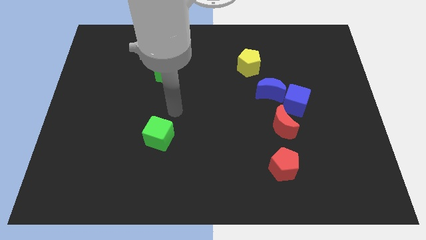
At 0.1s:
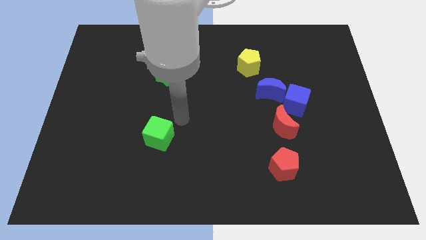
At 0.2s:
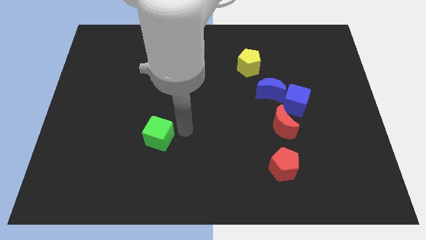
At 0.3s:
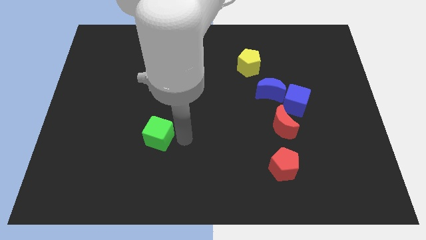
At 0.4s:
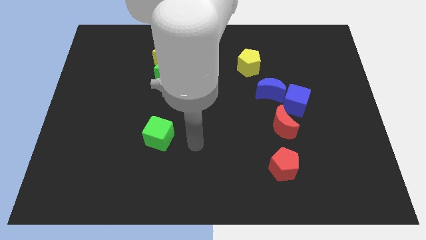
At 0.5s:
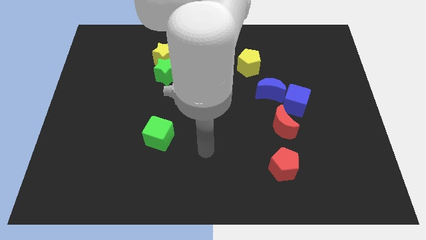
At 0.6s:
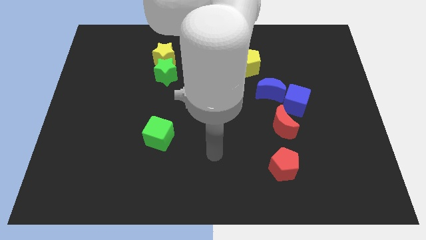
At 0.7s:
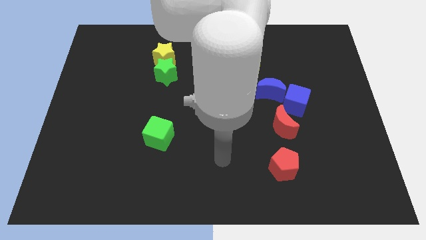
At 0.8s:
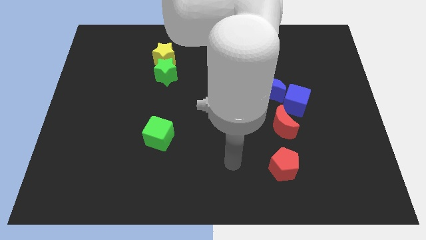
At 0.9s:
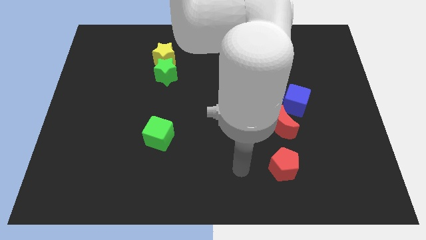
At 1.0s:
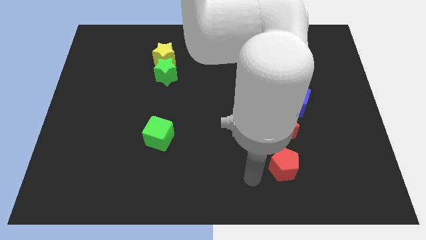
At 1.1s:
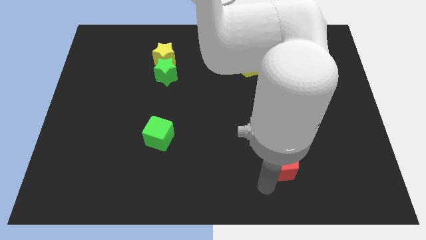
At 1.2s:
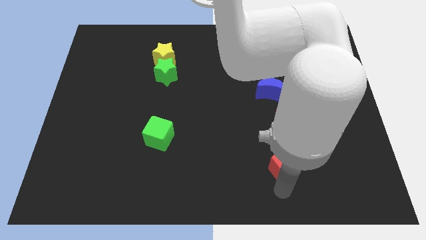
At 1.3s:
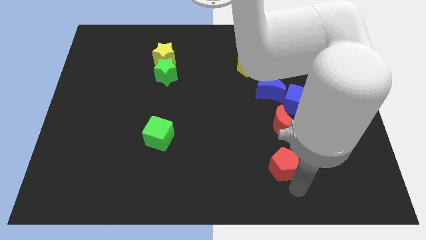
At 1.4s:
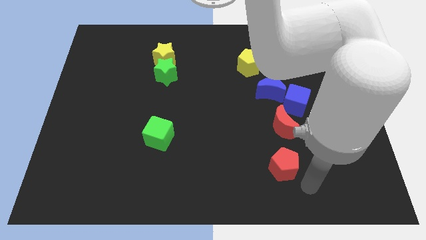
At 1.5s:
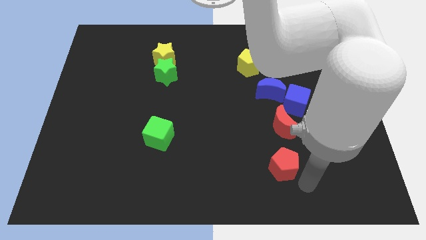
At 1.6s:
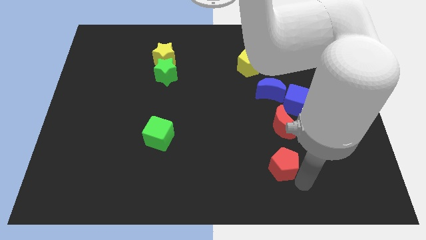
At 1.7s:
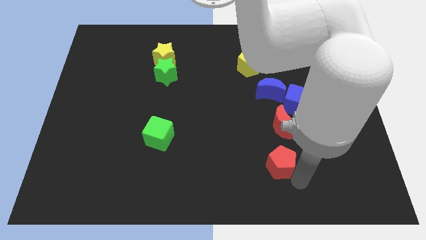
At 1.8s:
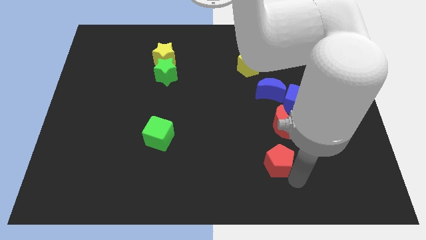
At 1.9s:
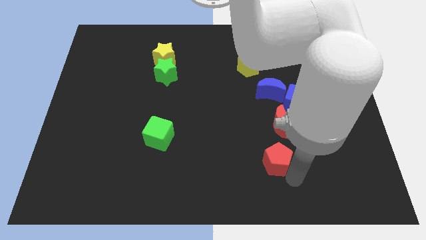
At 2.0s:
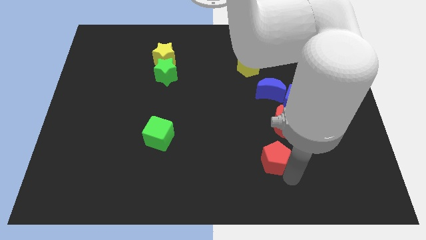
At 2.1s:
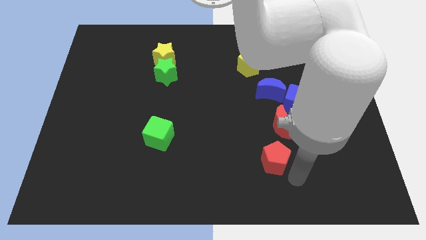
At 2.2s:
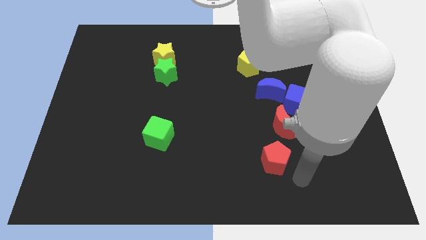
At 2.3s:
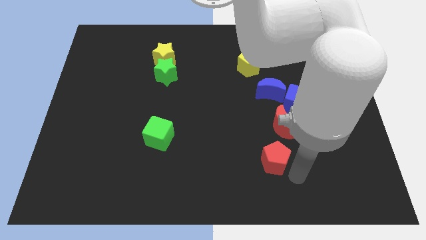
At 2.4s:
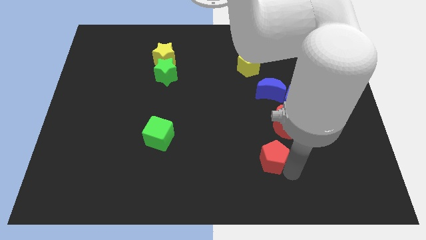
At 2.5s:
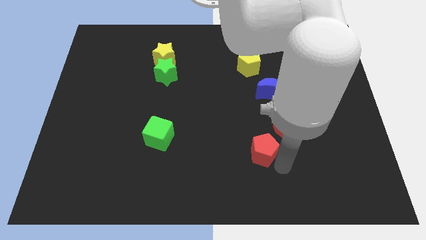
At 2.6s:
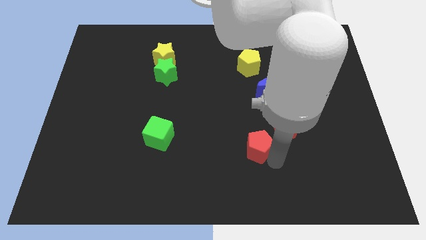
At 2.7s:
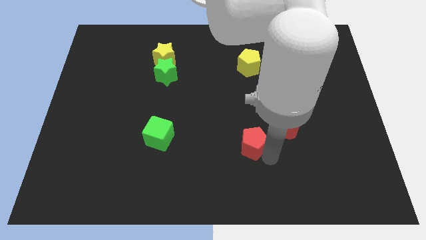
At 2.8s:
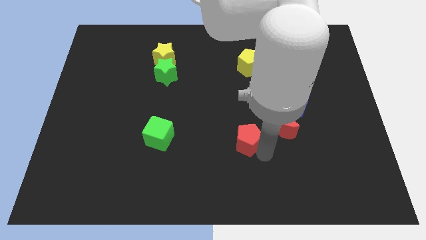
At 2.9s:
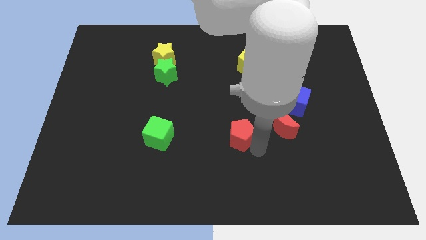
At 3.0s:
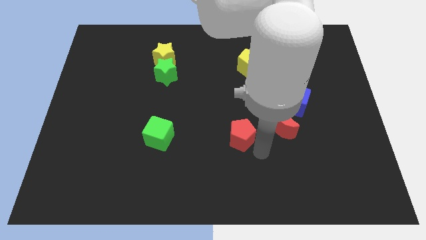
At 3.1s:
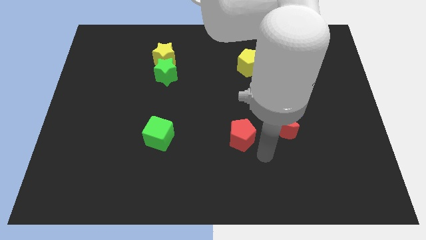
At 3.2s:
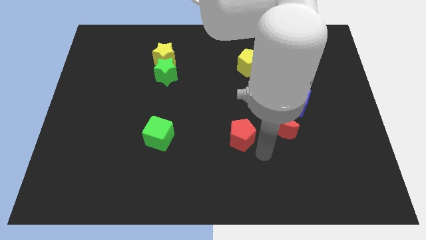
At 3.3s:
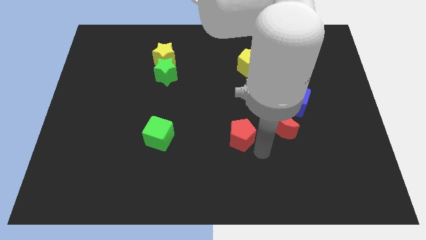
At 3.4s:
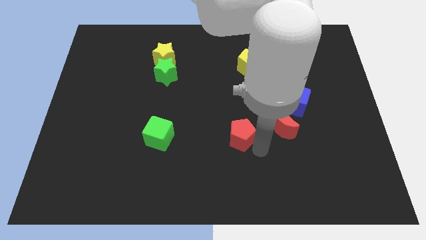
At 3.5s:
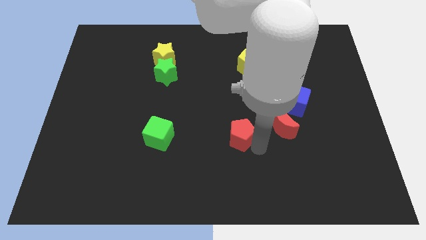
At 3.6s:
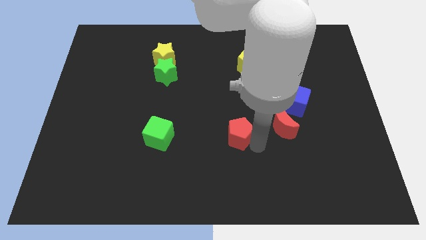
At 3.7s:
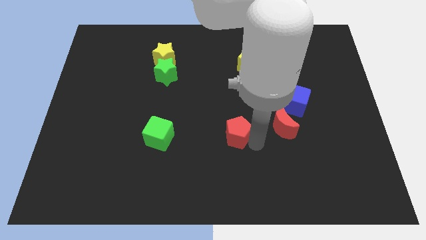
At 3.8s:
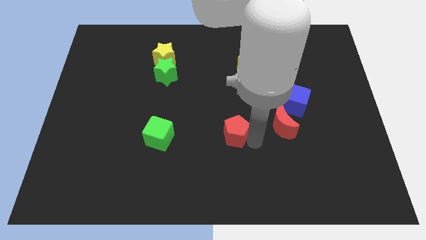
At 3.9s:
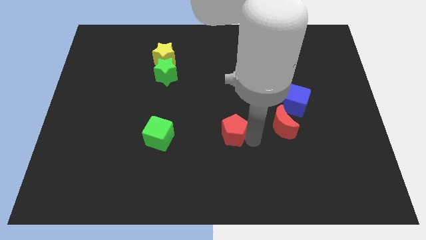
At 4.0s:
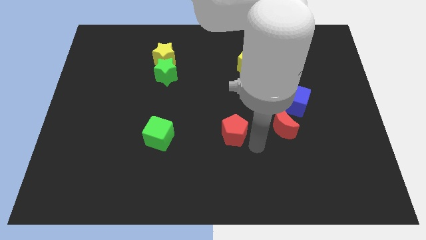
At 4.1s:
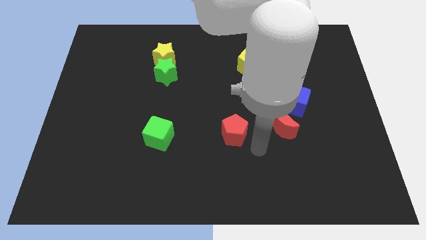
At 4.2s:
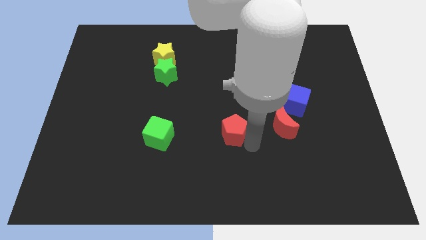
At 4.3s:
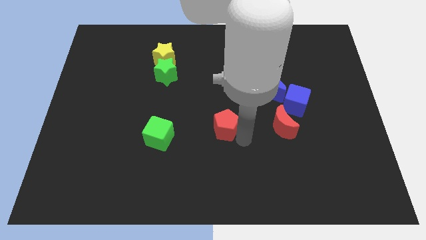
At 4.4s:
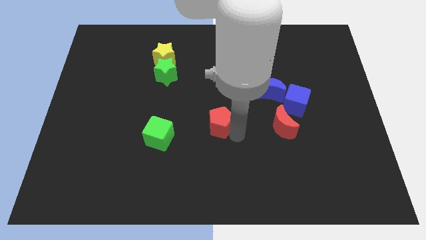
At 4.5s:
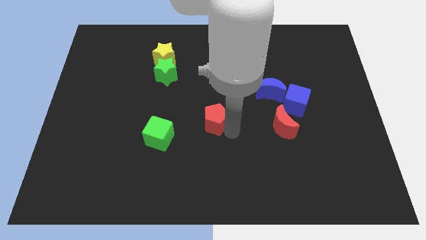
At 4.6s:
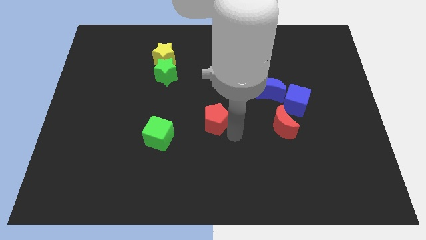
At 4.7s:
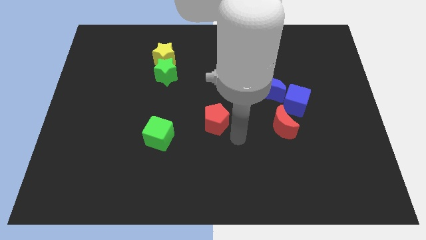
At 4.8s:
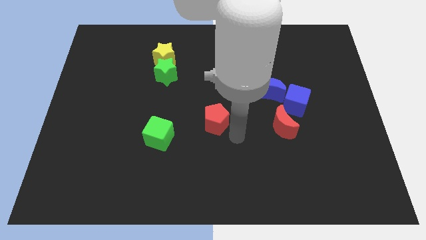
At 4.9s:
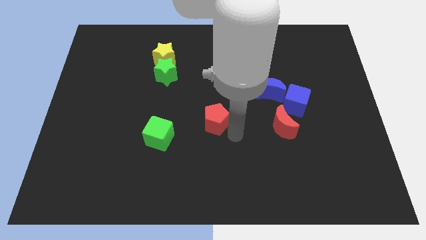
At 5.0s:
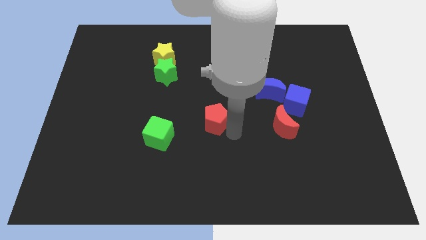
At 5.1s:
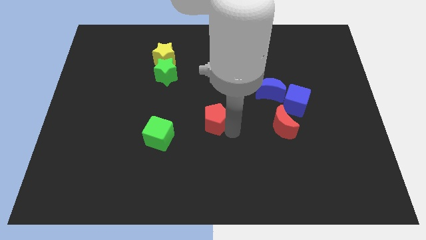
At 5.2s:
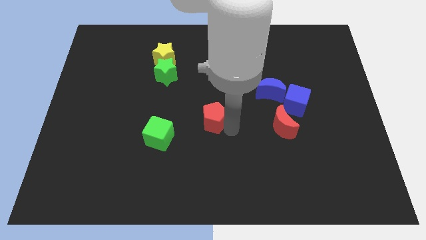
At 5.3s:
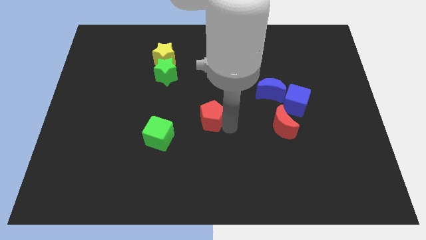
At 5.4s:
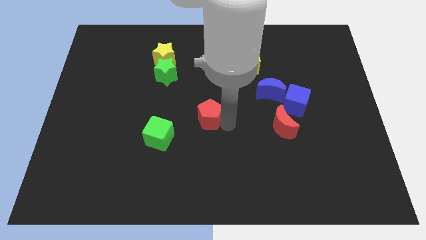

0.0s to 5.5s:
slide the red pentagon upwards and then to the left

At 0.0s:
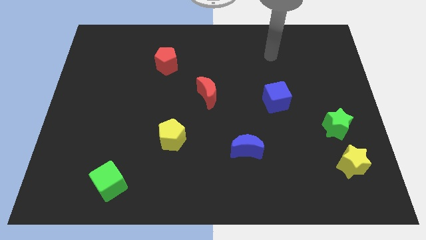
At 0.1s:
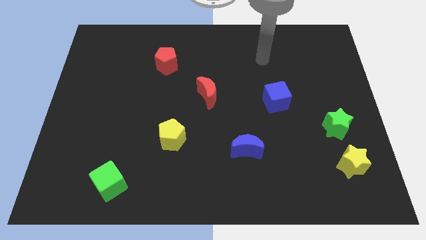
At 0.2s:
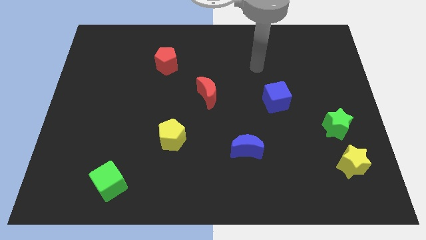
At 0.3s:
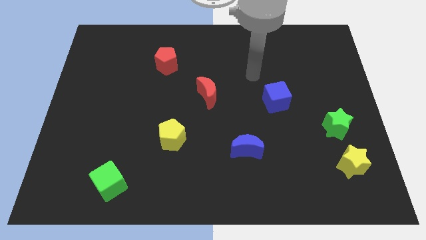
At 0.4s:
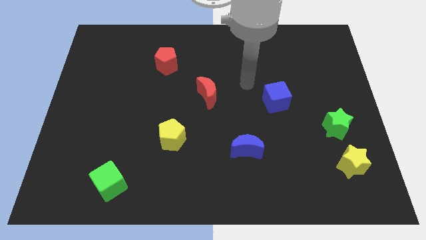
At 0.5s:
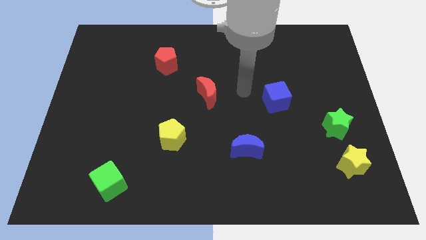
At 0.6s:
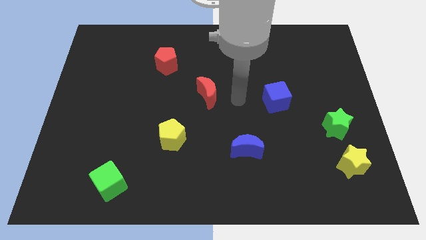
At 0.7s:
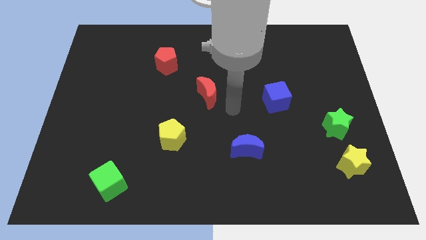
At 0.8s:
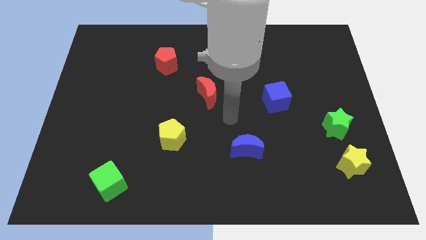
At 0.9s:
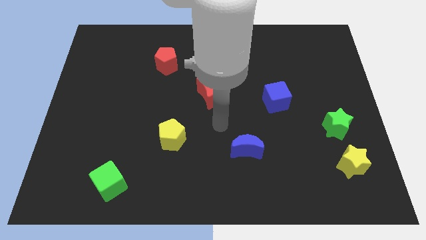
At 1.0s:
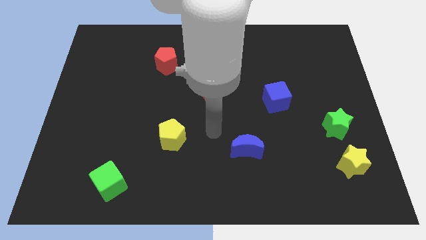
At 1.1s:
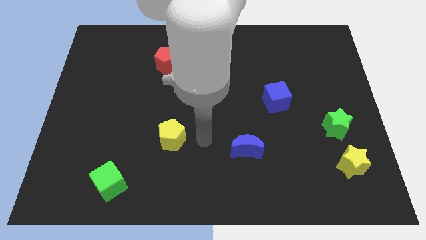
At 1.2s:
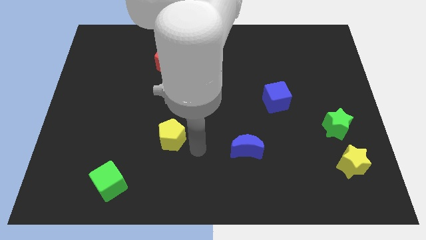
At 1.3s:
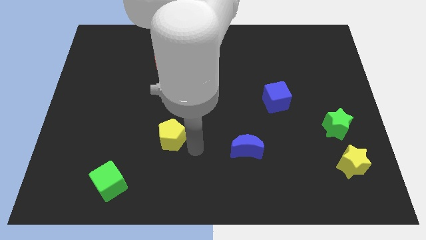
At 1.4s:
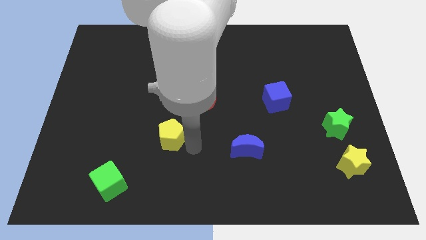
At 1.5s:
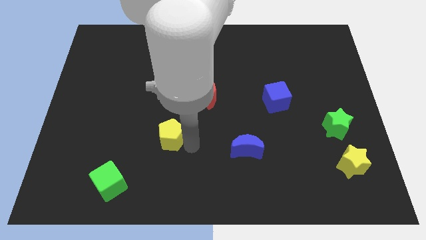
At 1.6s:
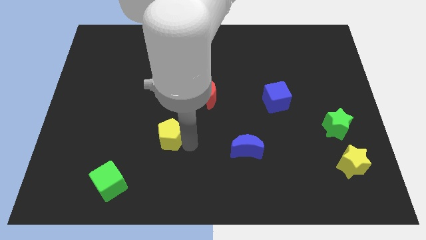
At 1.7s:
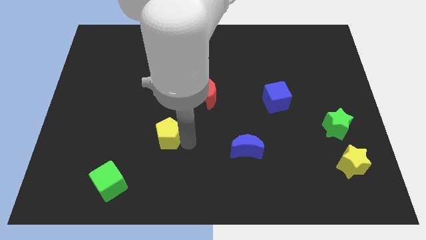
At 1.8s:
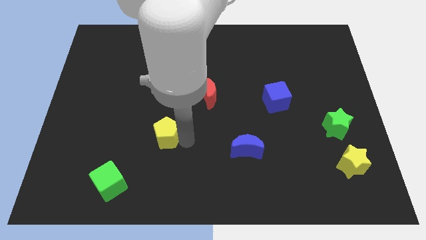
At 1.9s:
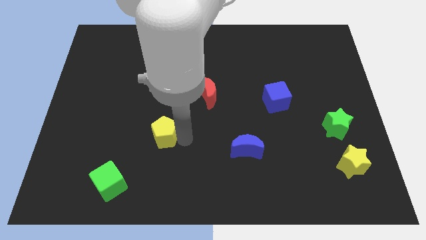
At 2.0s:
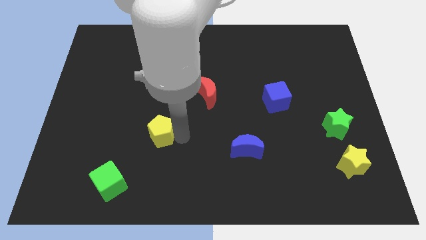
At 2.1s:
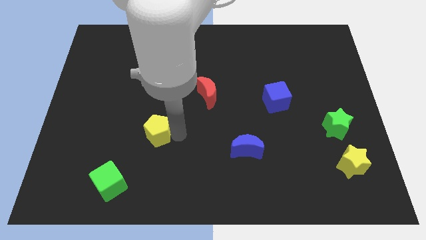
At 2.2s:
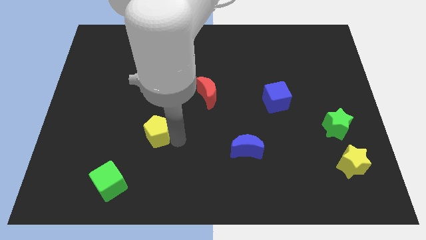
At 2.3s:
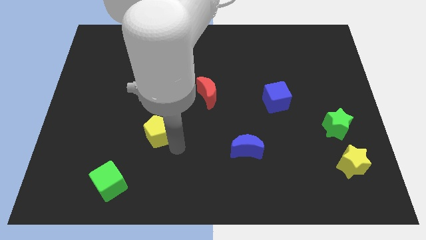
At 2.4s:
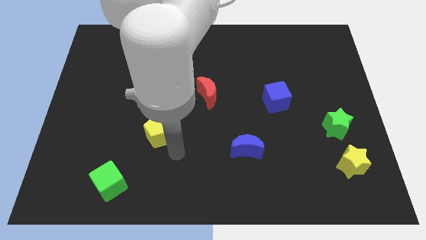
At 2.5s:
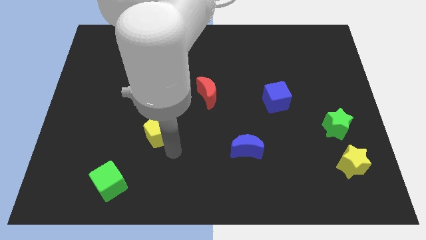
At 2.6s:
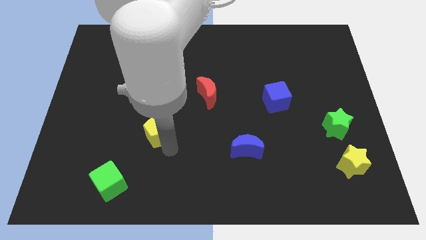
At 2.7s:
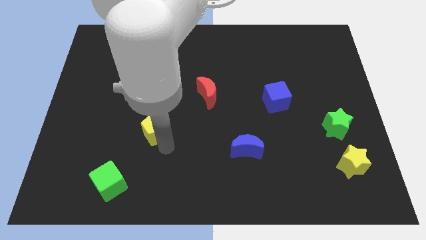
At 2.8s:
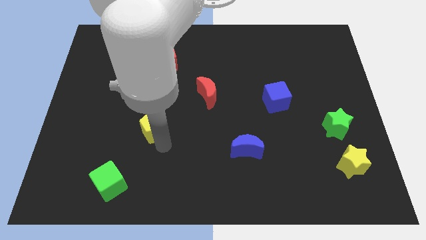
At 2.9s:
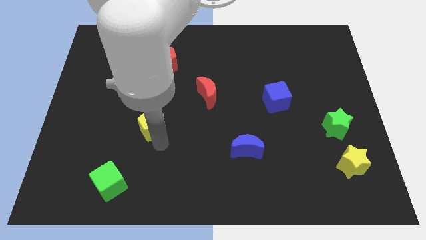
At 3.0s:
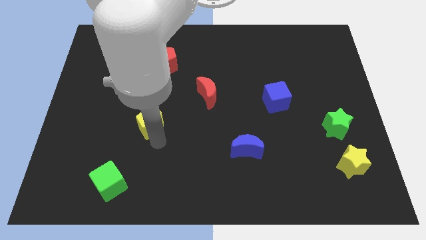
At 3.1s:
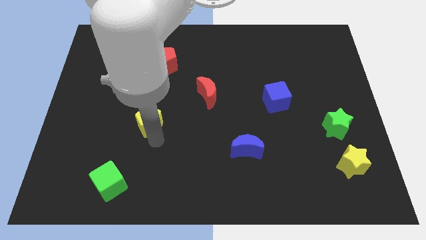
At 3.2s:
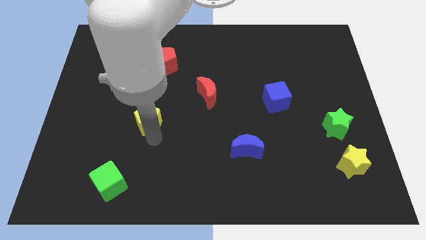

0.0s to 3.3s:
push the yellow pentagon up and left diagonally slightly
